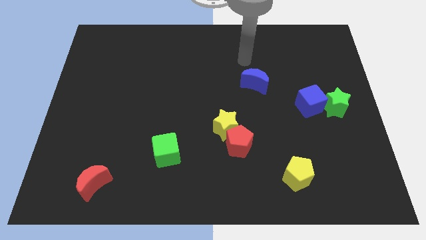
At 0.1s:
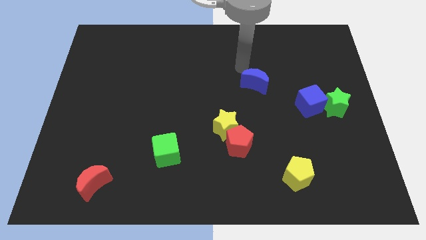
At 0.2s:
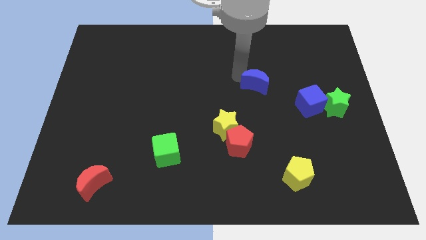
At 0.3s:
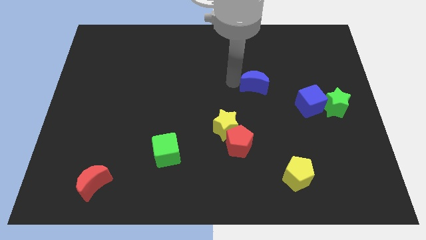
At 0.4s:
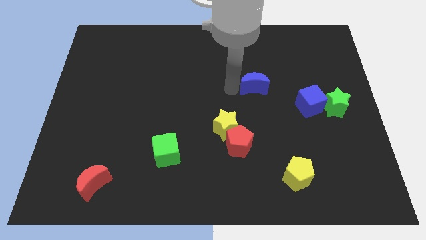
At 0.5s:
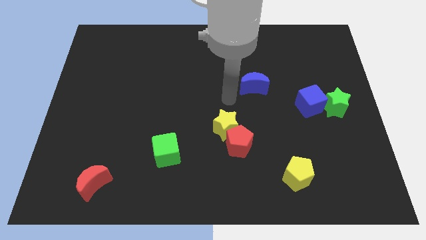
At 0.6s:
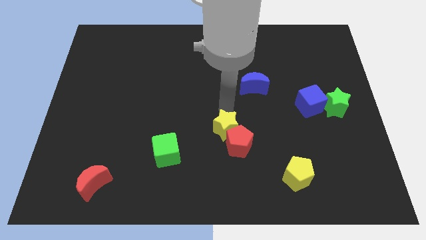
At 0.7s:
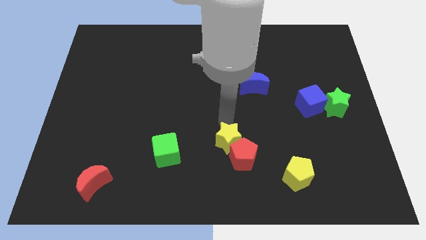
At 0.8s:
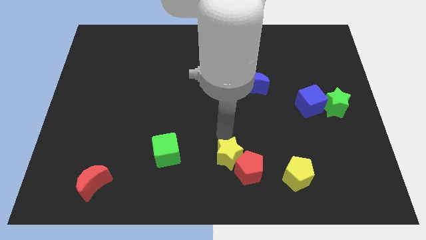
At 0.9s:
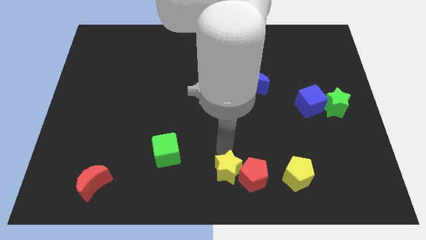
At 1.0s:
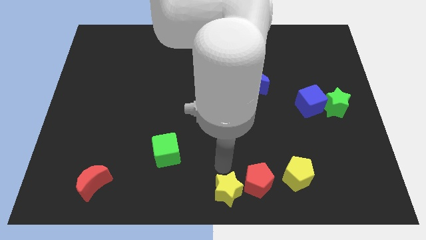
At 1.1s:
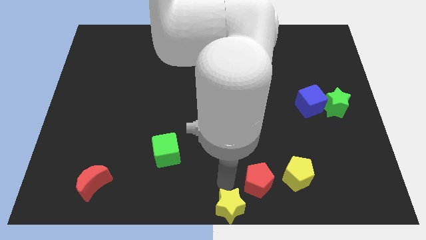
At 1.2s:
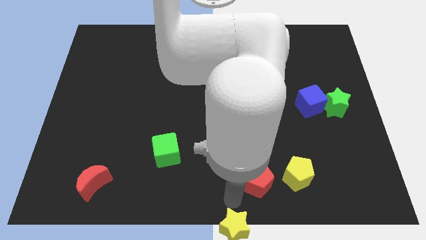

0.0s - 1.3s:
separate the red pentagon from the yellow star

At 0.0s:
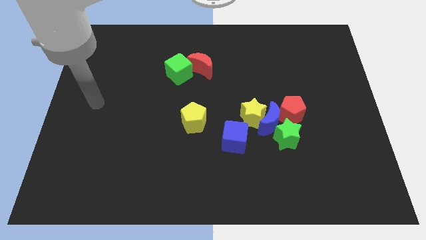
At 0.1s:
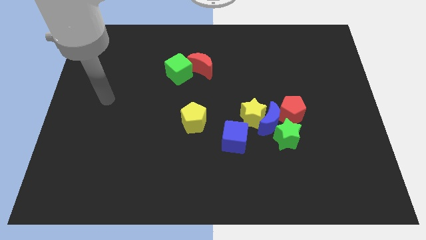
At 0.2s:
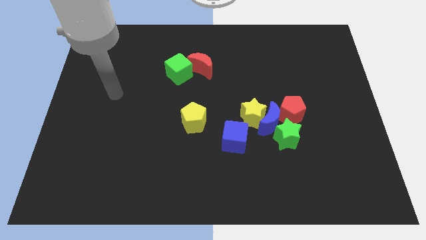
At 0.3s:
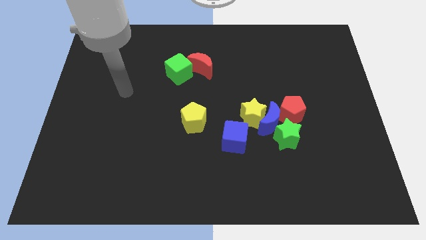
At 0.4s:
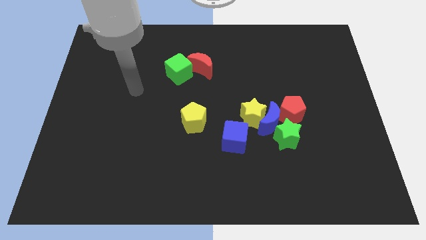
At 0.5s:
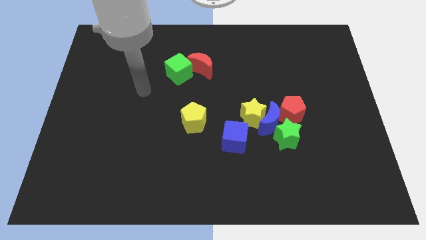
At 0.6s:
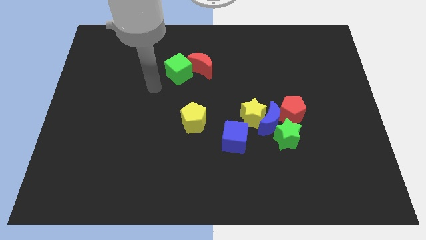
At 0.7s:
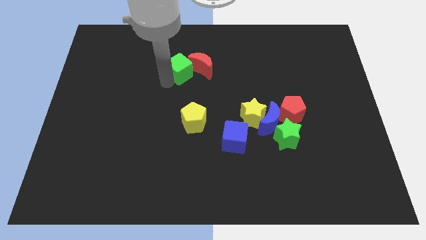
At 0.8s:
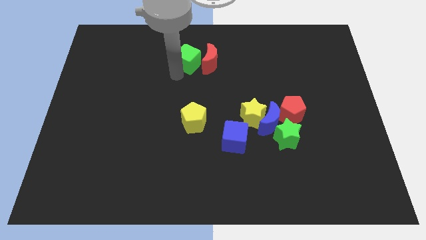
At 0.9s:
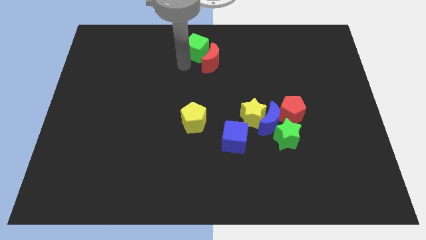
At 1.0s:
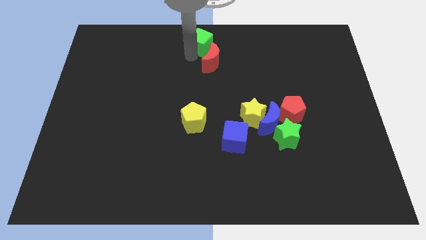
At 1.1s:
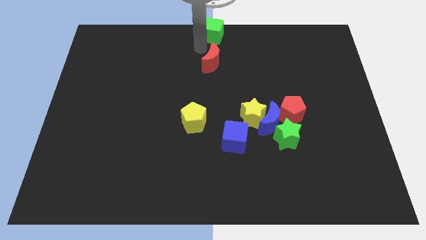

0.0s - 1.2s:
move the red moon away from the green cube

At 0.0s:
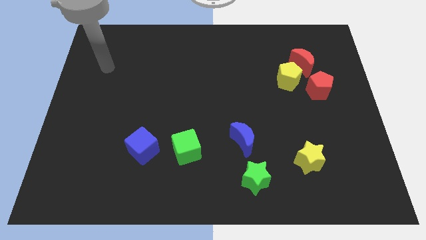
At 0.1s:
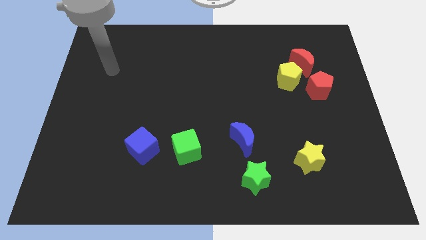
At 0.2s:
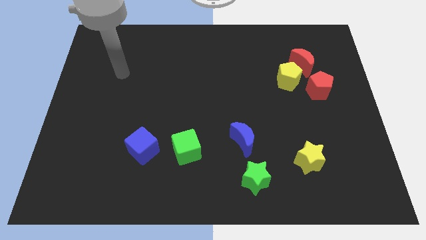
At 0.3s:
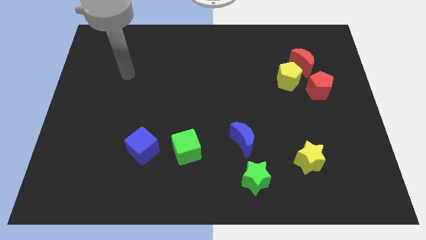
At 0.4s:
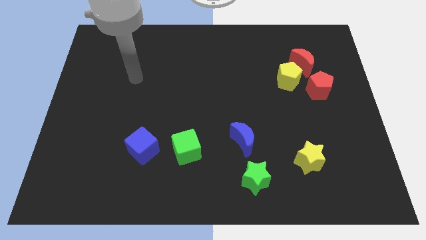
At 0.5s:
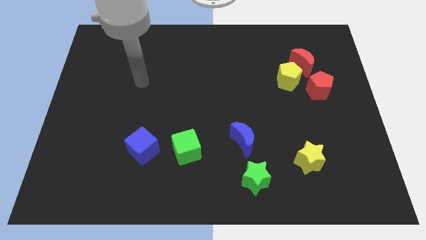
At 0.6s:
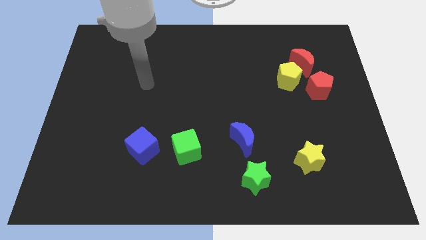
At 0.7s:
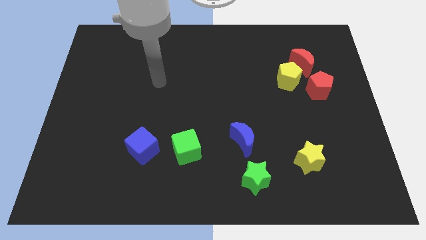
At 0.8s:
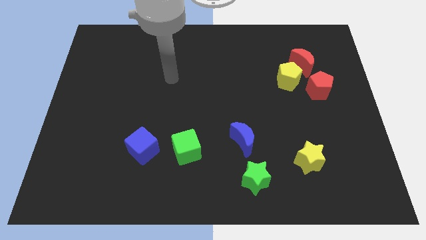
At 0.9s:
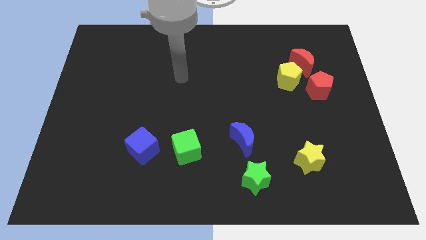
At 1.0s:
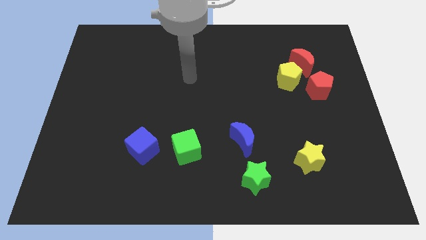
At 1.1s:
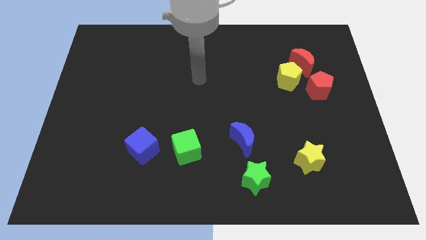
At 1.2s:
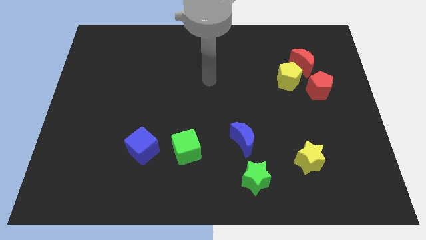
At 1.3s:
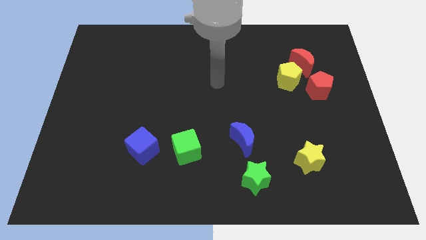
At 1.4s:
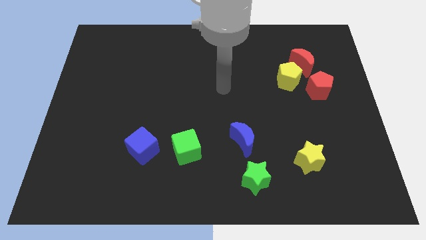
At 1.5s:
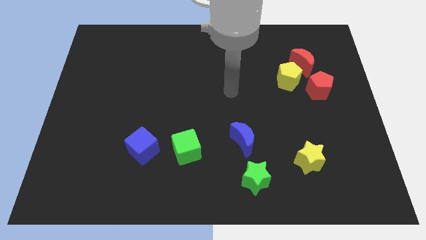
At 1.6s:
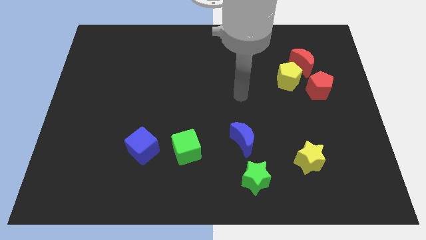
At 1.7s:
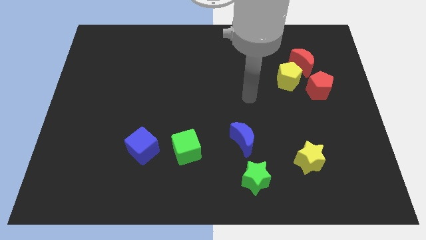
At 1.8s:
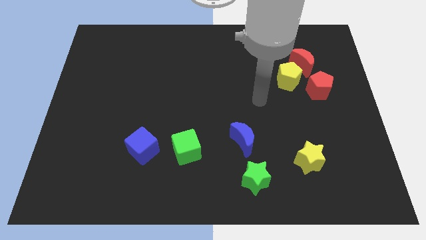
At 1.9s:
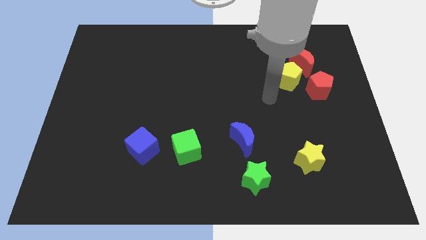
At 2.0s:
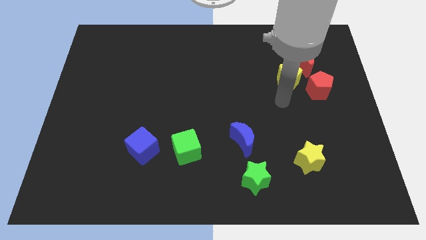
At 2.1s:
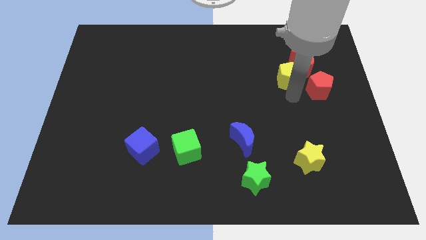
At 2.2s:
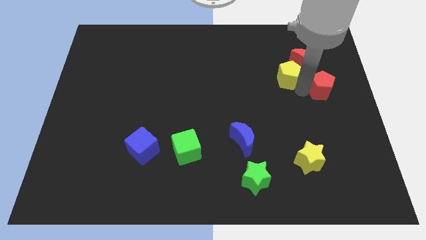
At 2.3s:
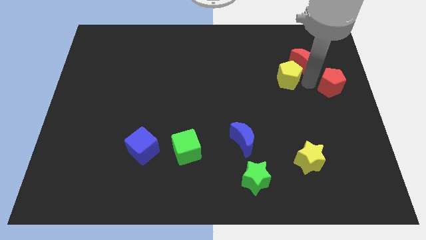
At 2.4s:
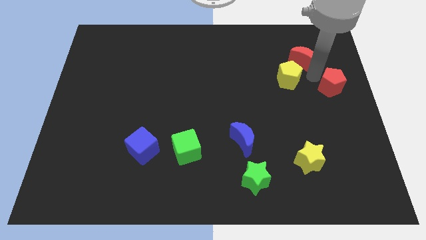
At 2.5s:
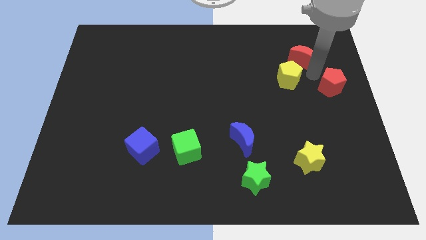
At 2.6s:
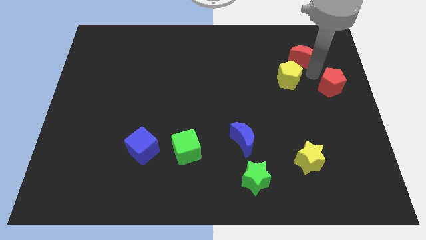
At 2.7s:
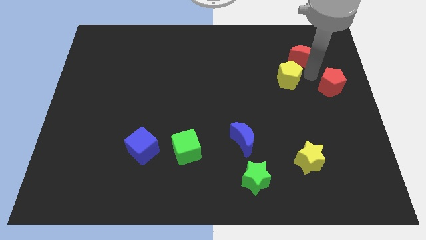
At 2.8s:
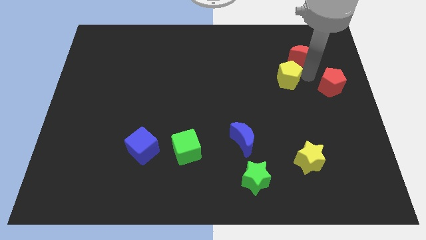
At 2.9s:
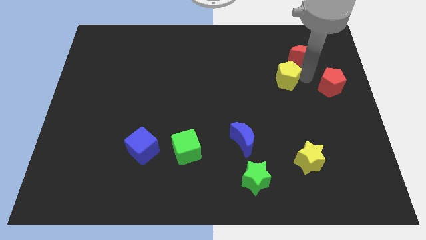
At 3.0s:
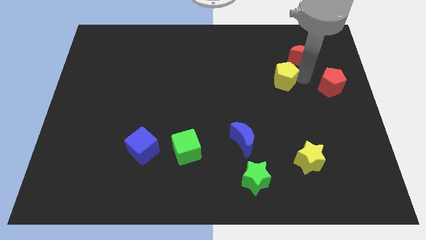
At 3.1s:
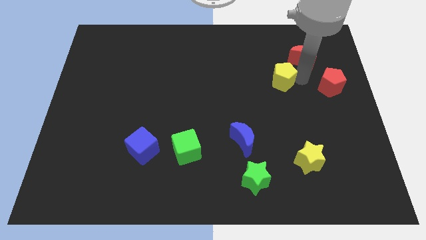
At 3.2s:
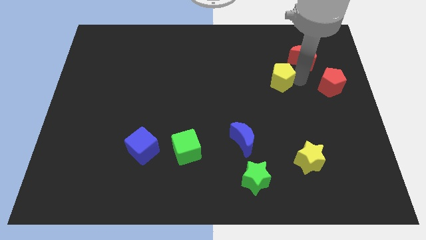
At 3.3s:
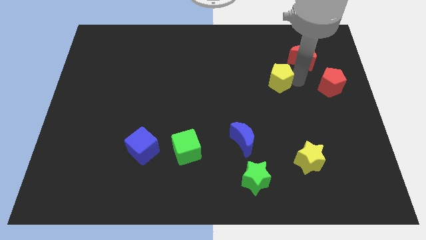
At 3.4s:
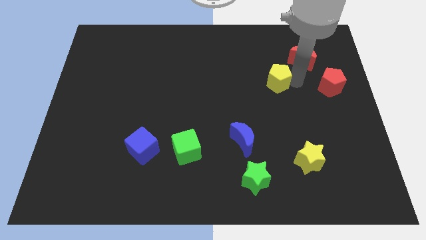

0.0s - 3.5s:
move the yellow pentagon away from the red moon and red pentagon

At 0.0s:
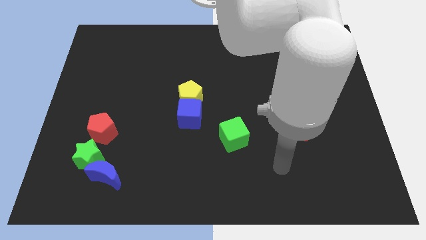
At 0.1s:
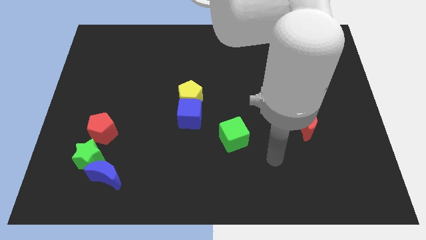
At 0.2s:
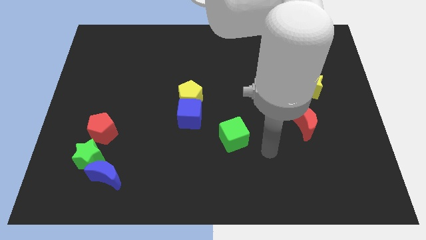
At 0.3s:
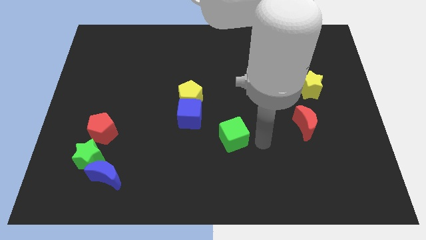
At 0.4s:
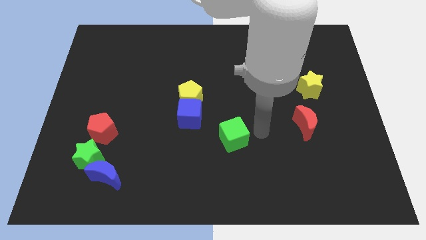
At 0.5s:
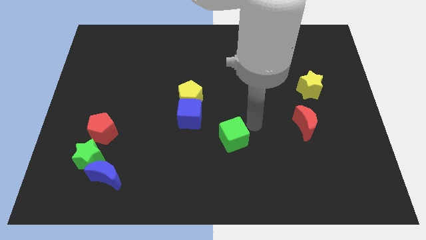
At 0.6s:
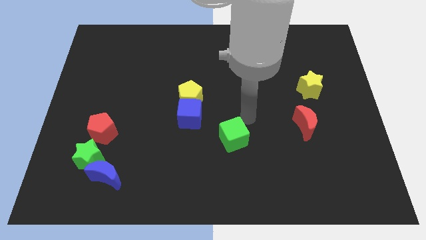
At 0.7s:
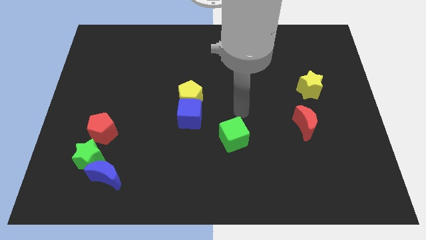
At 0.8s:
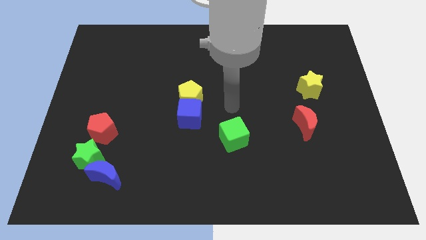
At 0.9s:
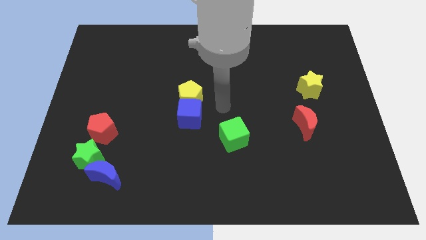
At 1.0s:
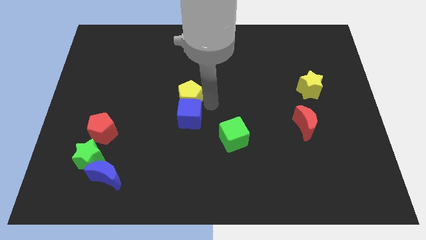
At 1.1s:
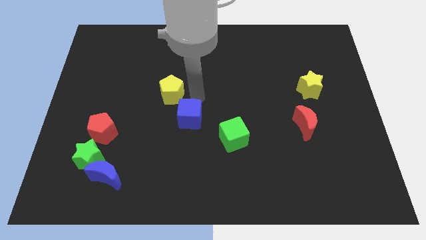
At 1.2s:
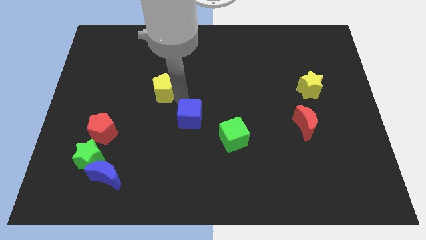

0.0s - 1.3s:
separate the blue cube from the yellow pentagon

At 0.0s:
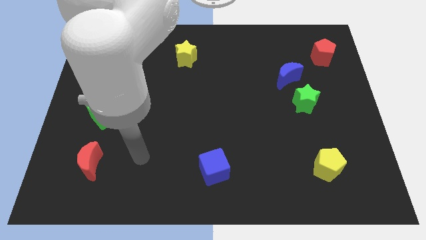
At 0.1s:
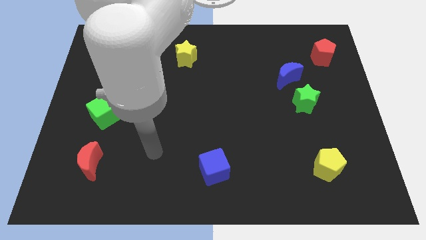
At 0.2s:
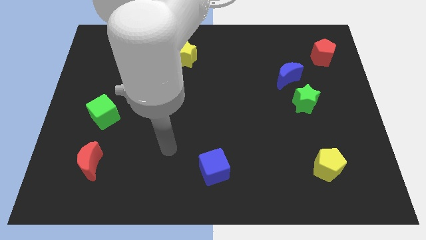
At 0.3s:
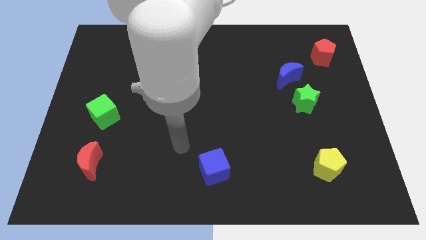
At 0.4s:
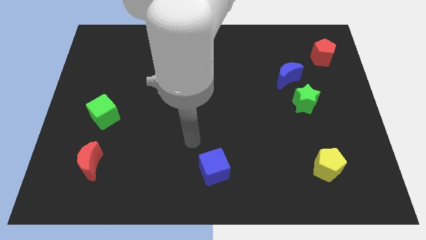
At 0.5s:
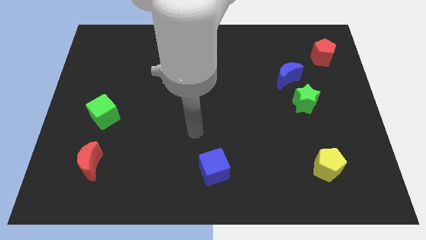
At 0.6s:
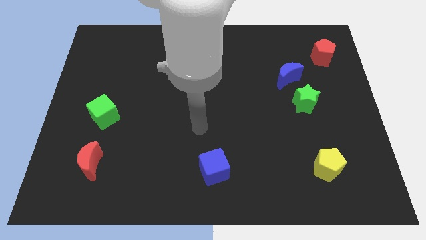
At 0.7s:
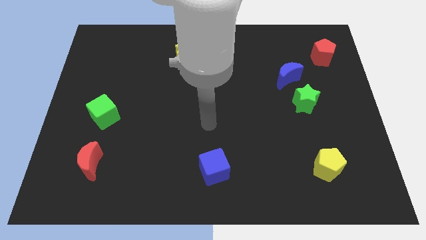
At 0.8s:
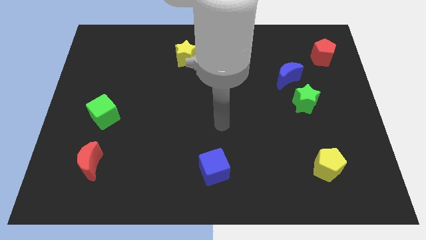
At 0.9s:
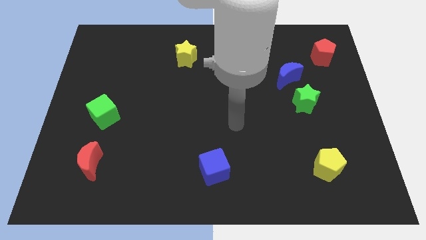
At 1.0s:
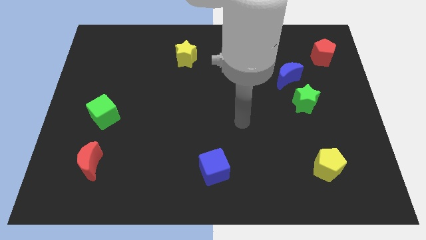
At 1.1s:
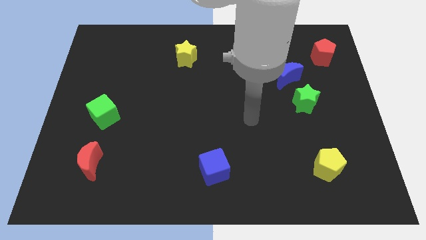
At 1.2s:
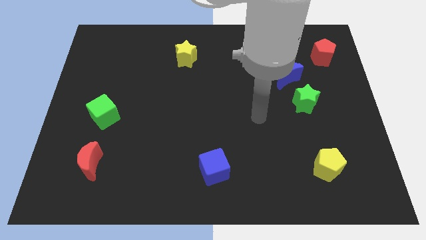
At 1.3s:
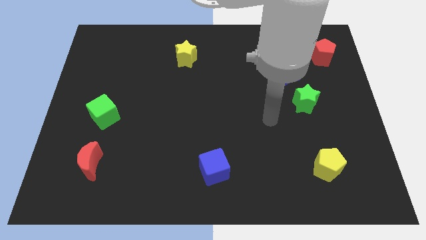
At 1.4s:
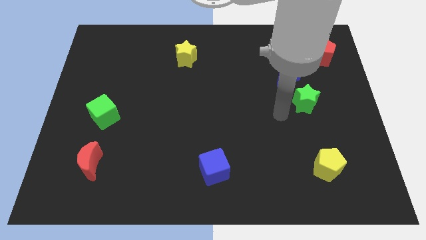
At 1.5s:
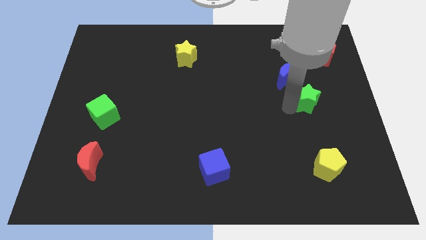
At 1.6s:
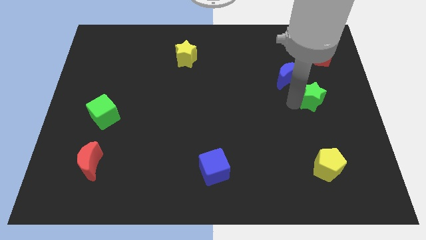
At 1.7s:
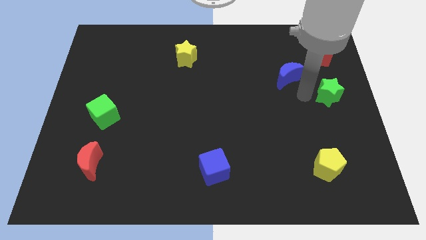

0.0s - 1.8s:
pull the blue moon apart from the green star

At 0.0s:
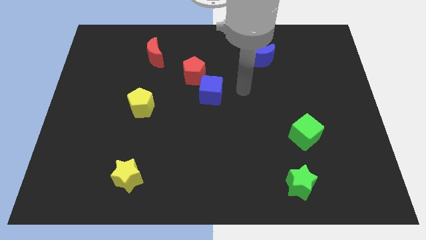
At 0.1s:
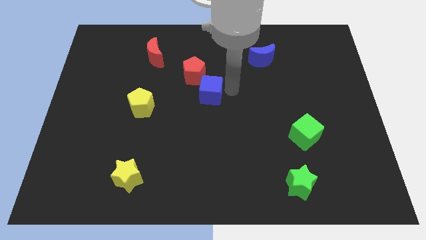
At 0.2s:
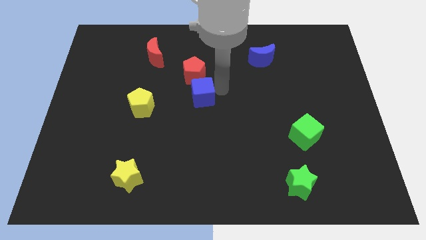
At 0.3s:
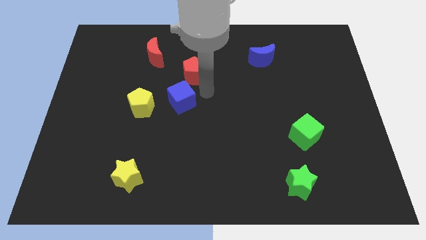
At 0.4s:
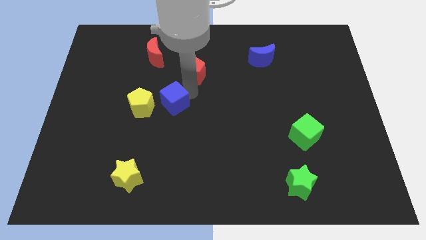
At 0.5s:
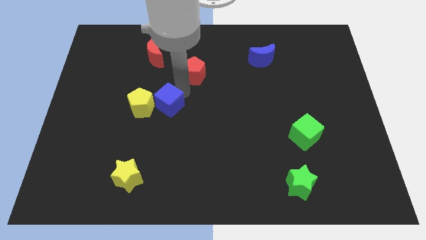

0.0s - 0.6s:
separate the red pentagon from the blue cube
